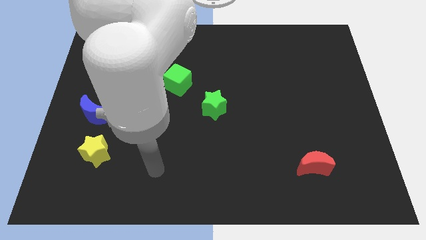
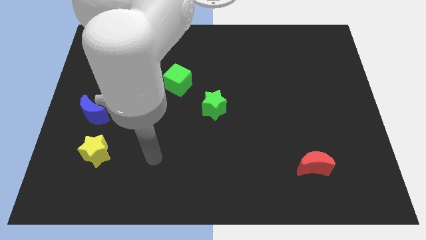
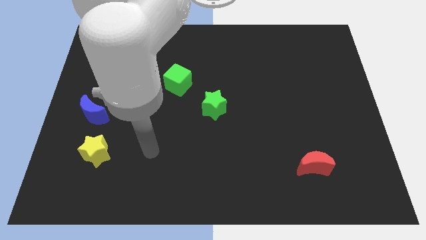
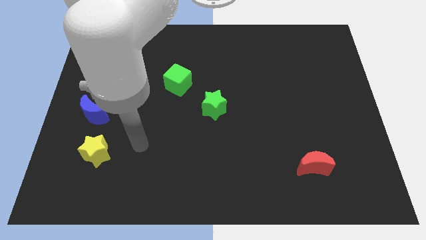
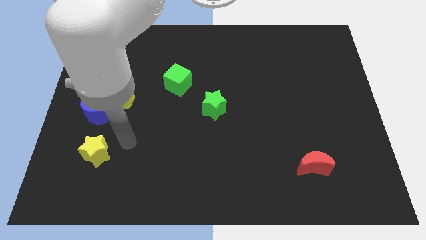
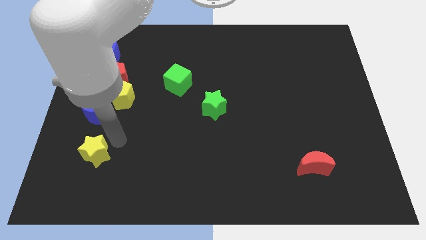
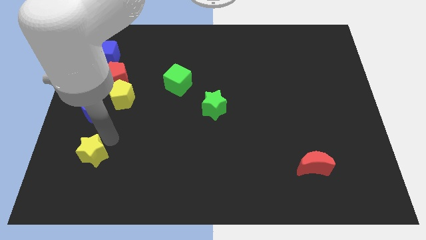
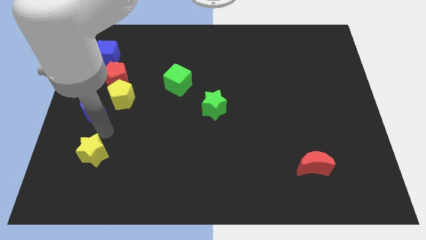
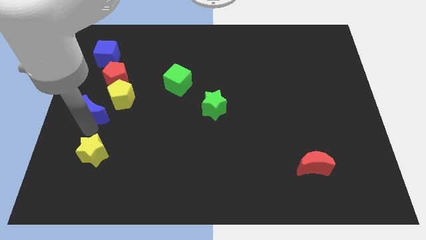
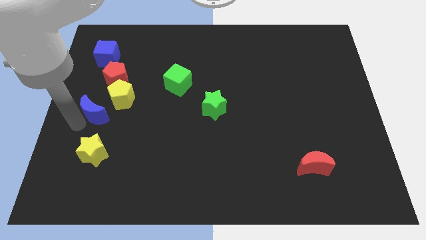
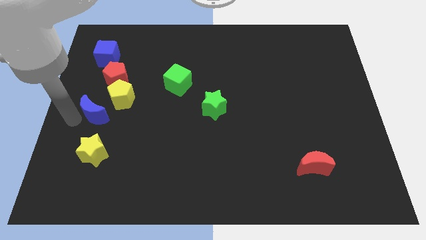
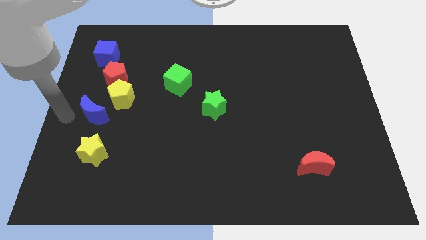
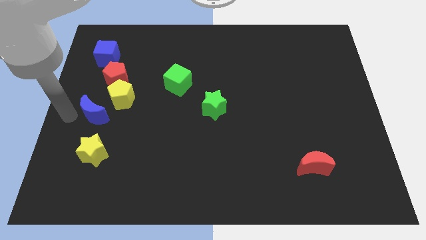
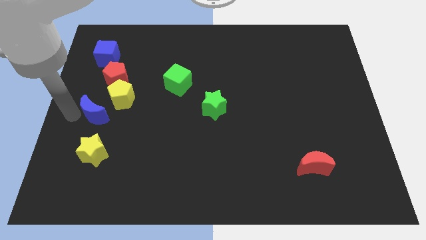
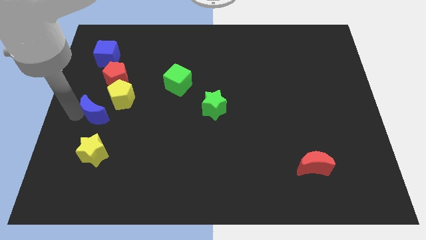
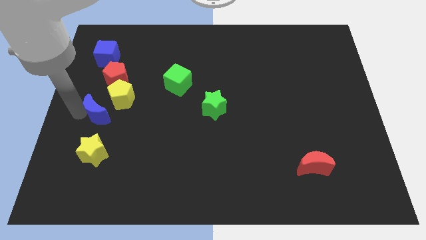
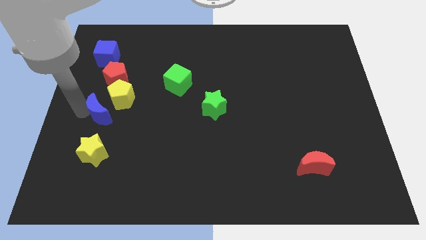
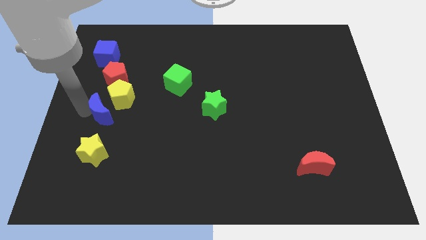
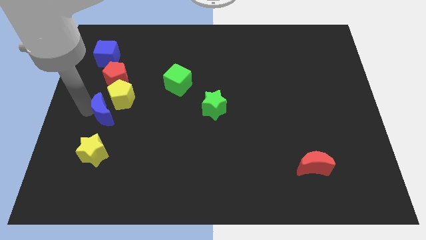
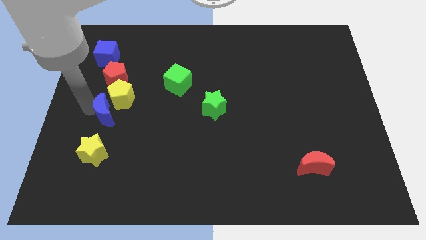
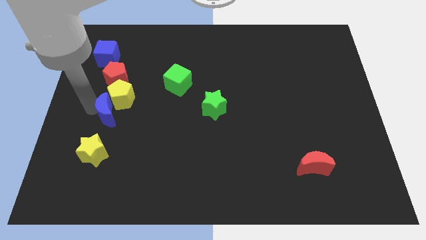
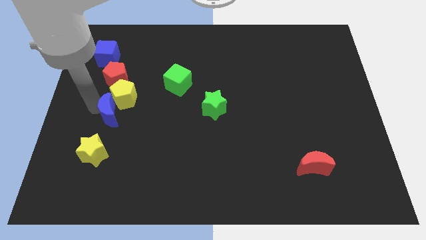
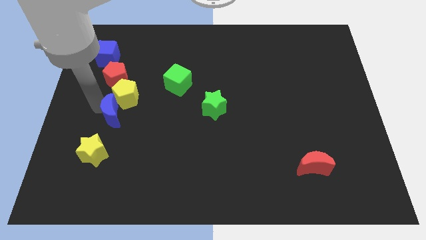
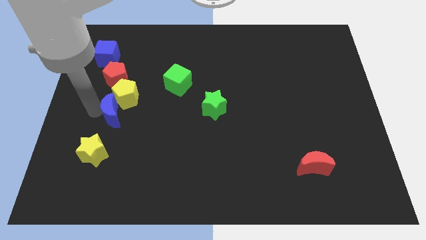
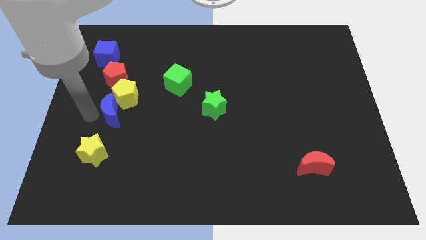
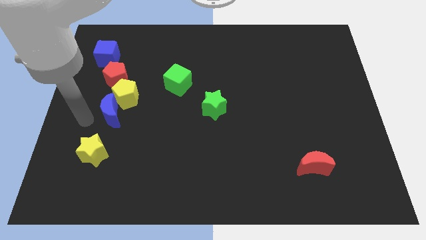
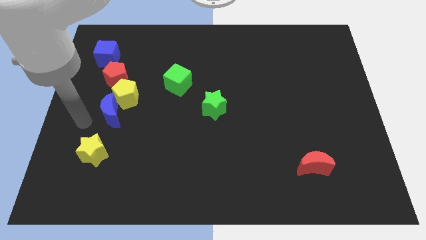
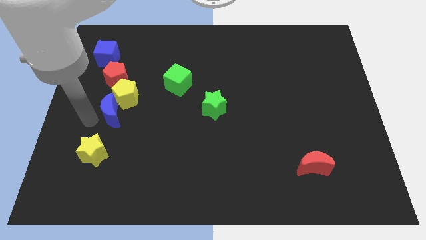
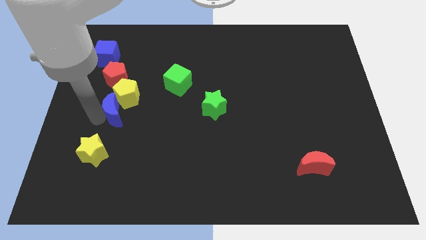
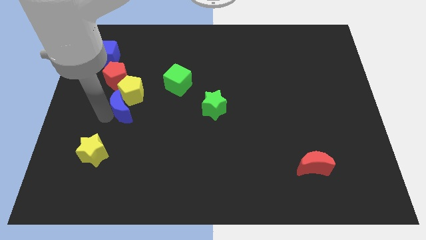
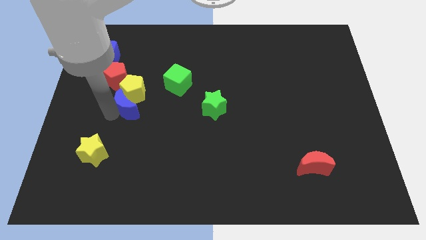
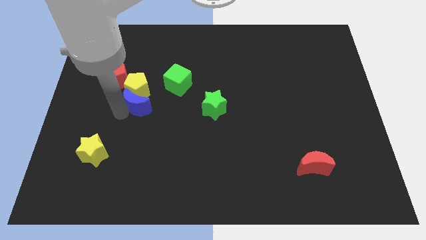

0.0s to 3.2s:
push the blue moon a little upwards and right diagonally

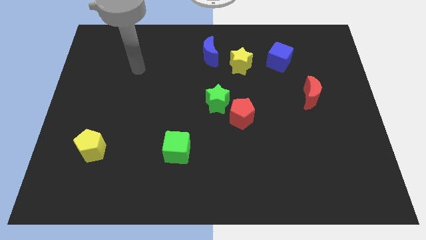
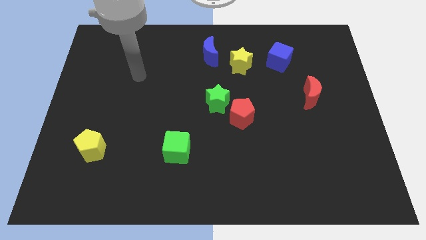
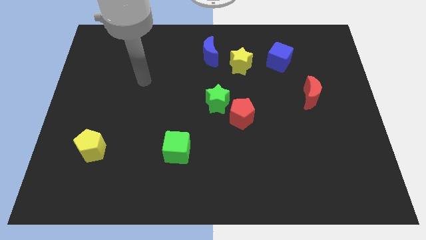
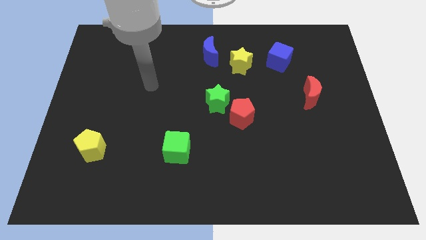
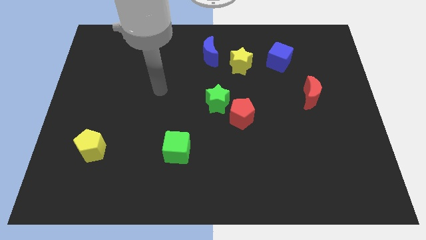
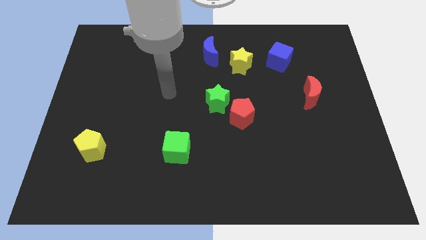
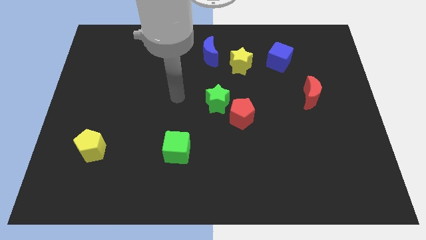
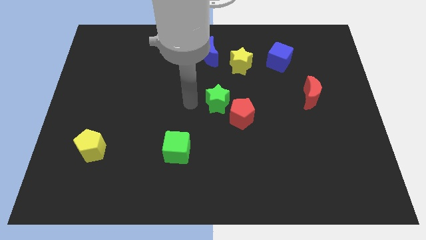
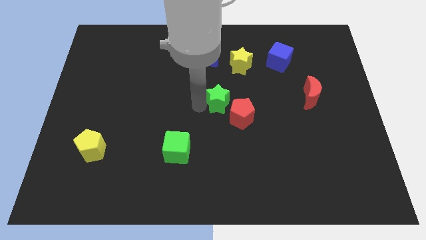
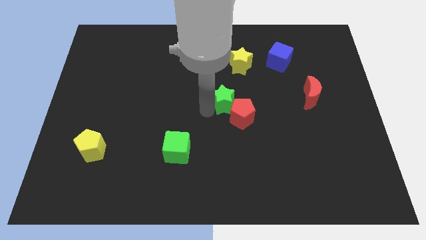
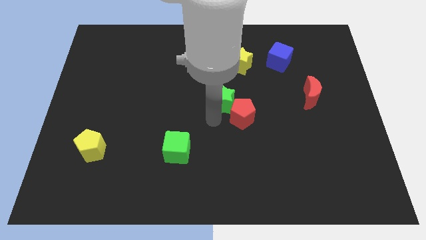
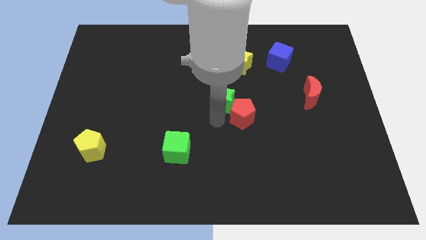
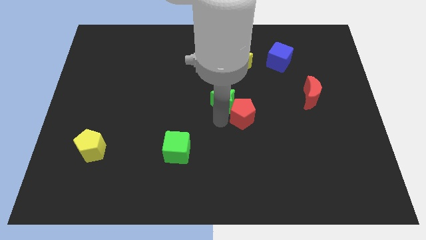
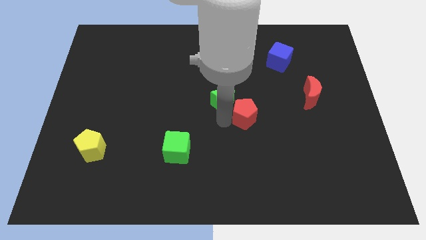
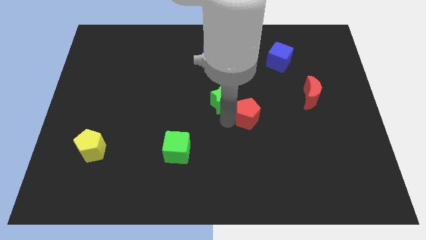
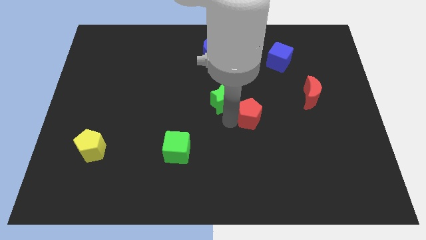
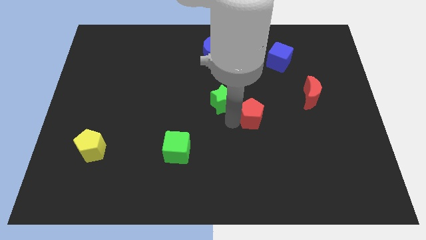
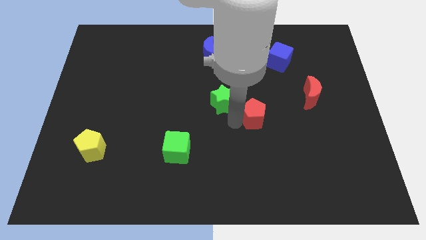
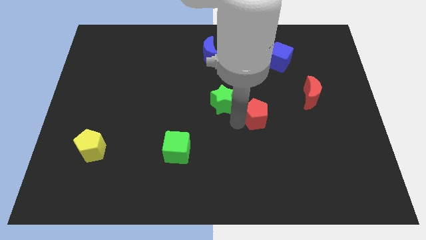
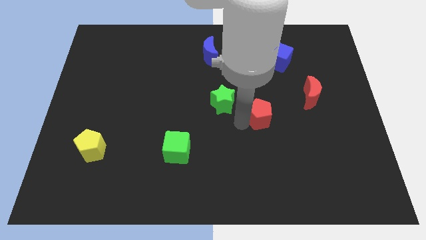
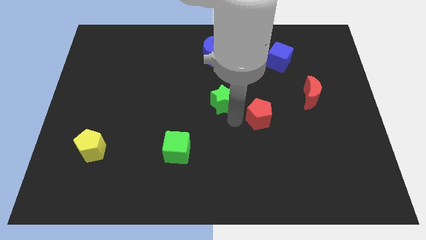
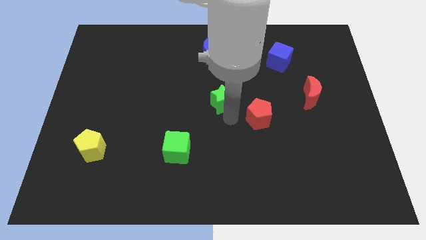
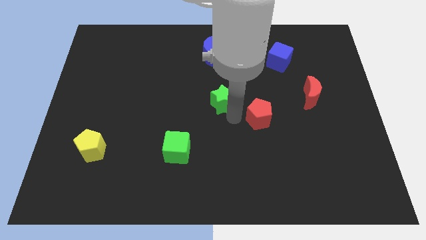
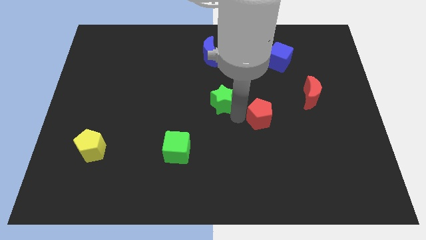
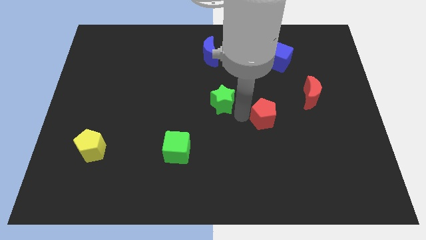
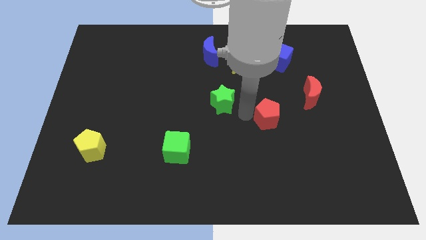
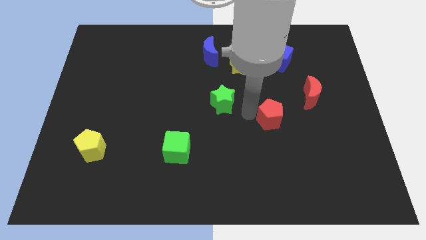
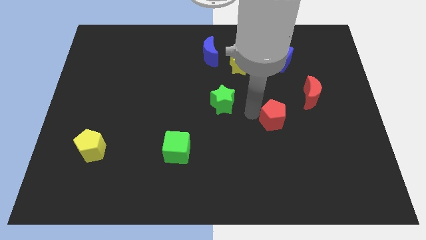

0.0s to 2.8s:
slide the red pentagon right slightly

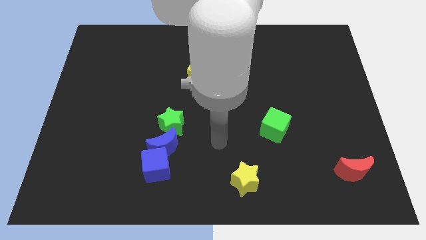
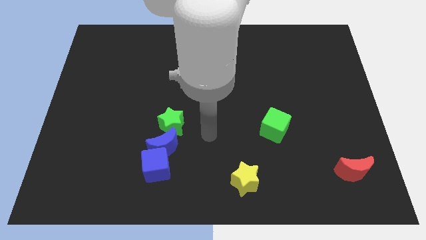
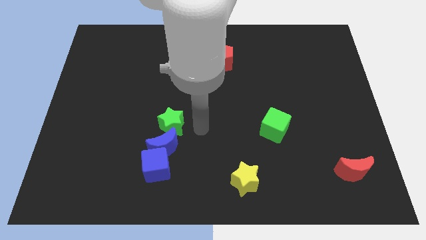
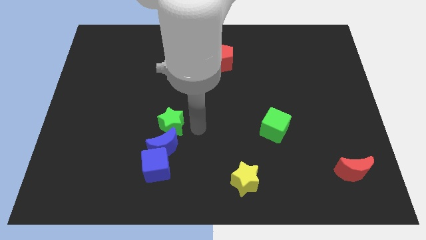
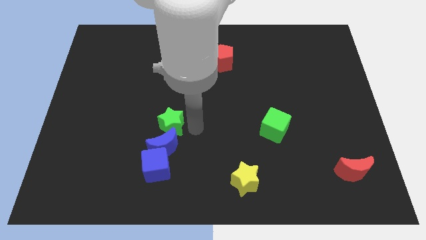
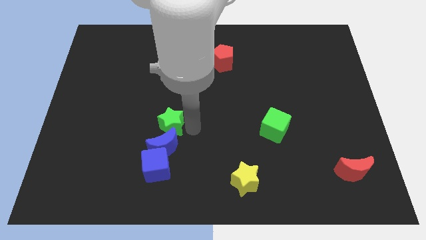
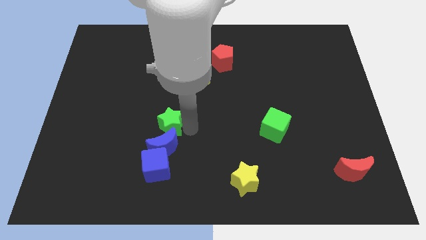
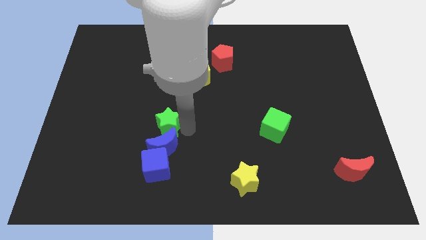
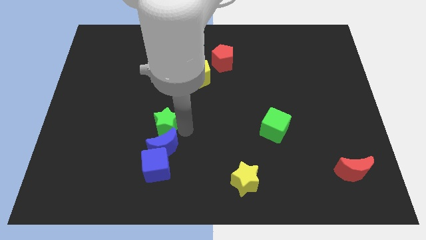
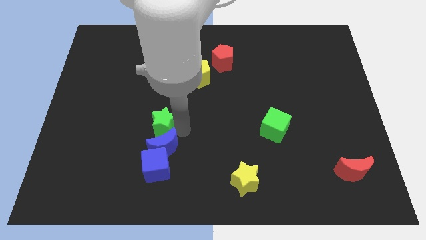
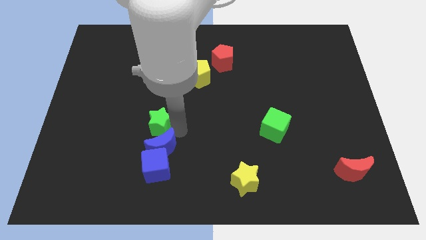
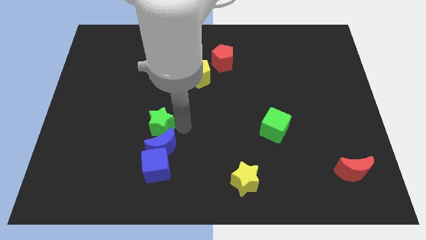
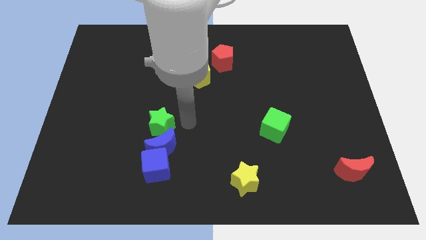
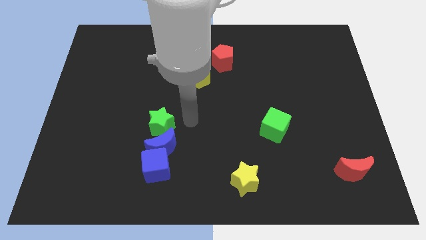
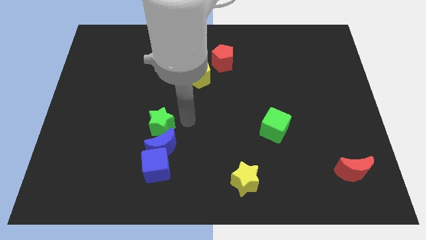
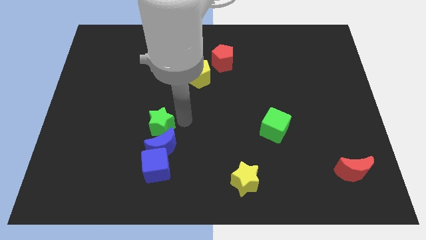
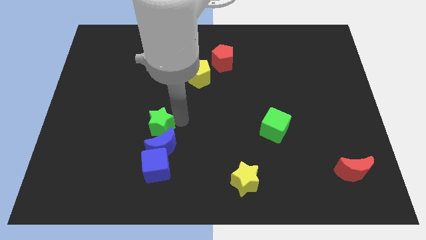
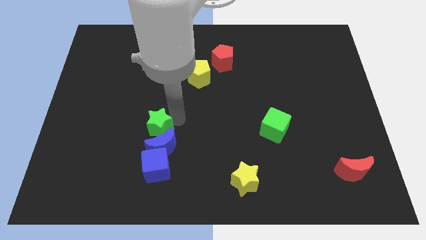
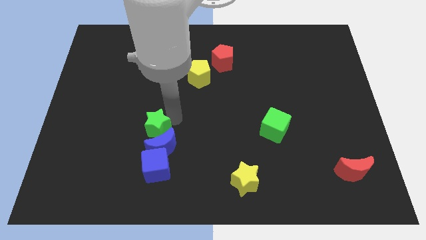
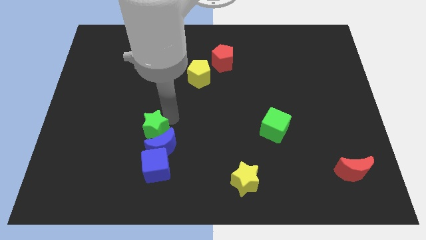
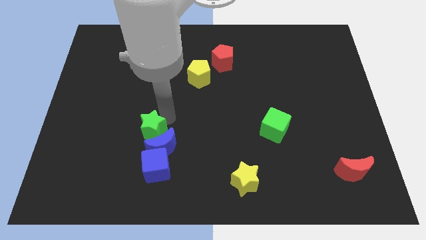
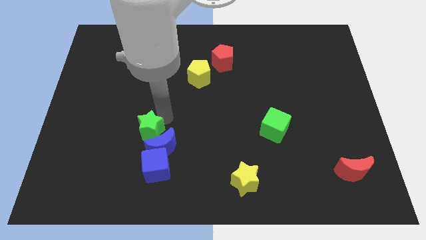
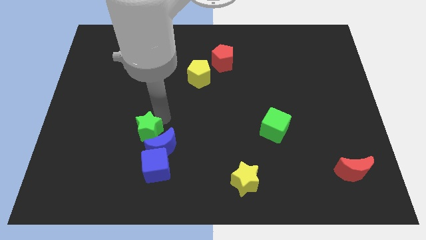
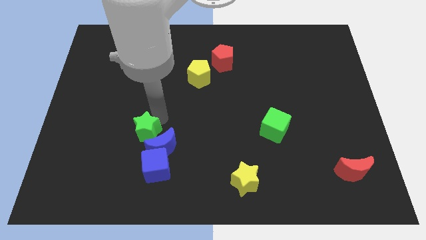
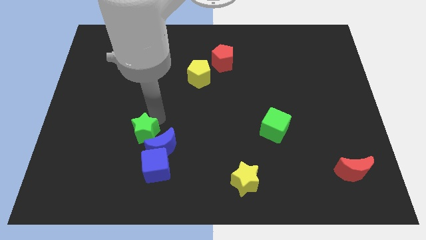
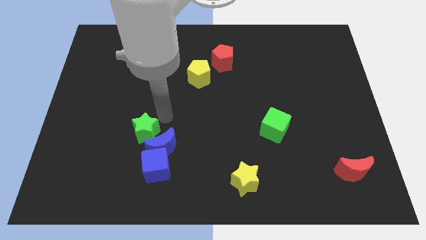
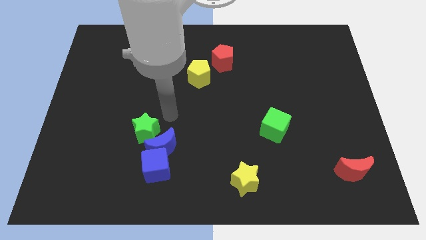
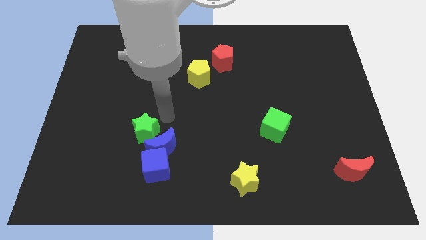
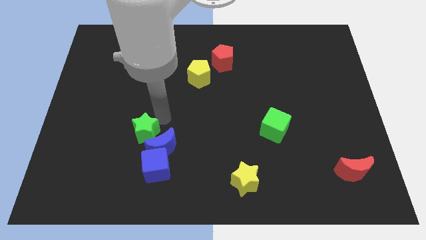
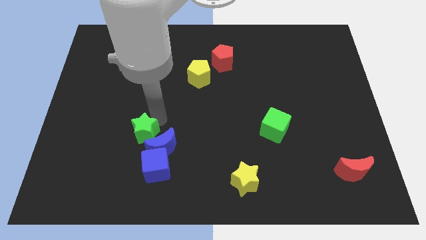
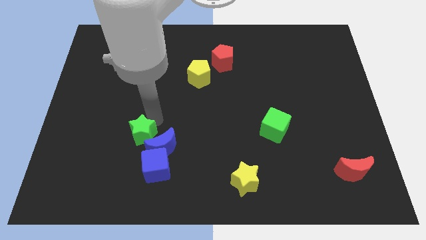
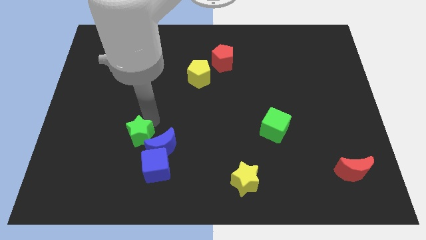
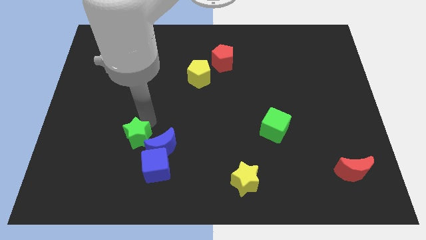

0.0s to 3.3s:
push the green star a bit diagonally down and to the left
